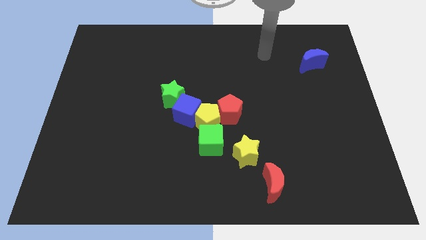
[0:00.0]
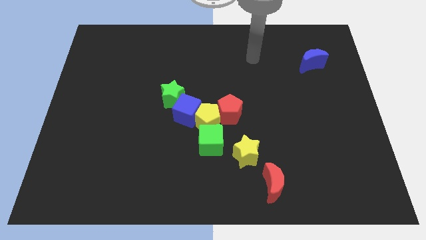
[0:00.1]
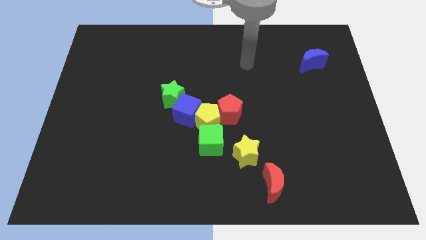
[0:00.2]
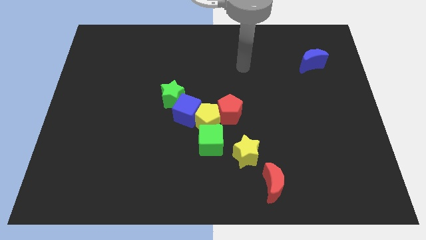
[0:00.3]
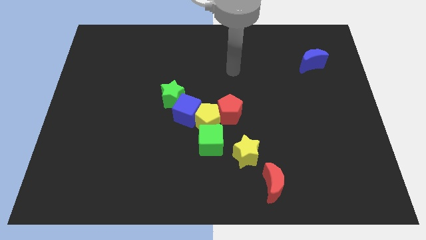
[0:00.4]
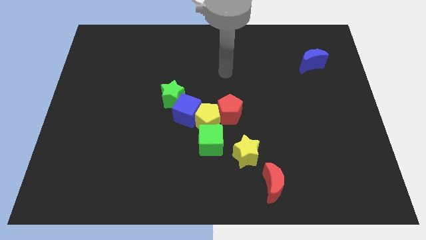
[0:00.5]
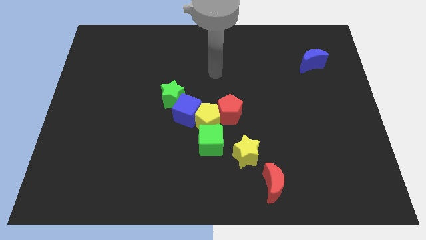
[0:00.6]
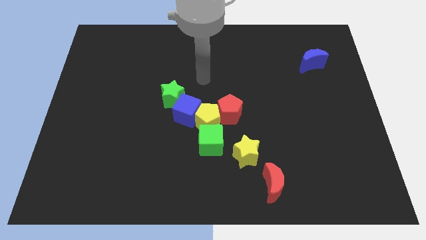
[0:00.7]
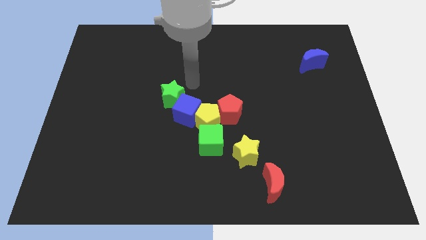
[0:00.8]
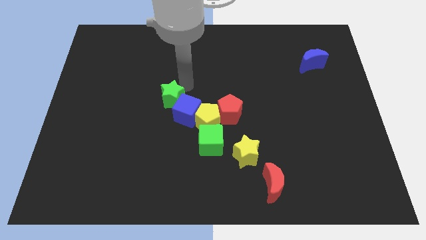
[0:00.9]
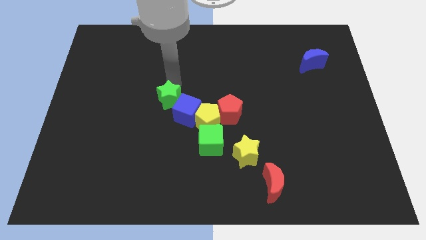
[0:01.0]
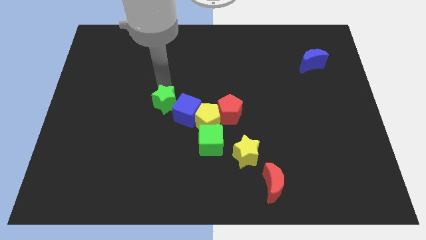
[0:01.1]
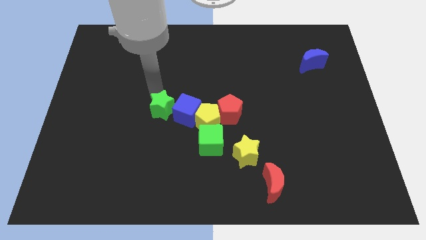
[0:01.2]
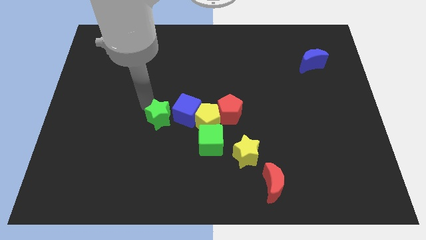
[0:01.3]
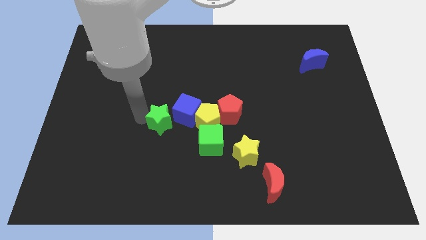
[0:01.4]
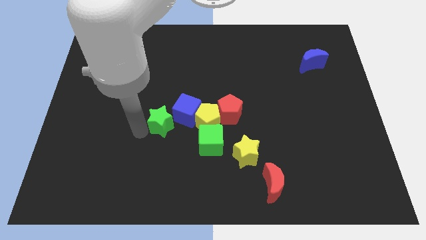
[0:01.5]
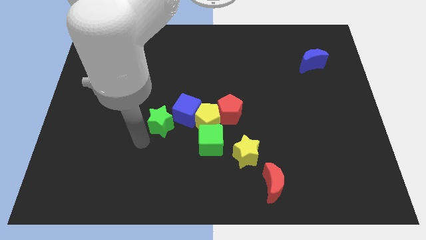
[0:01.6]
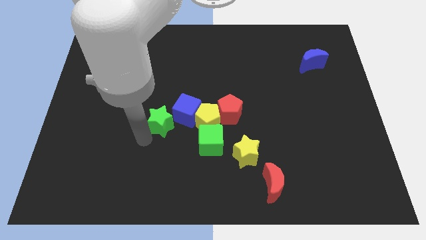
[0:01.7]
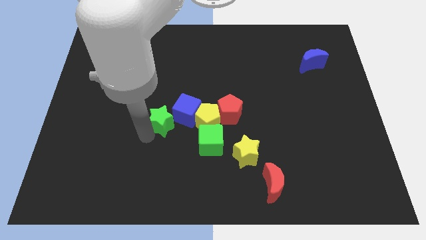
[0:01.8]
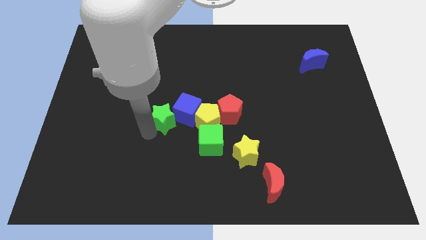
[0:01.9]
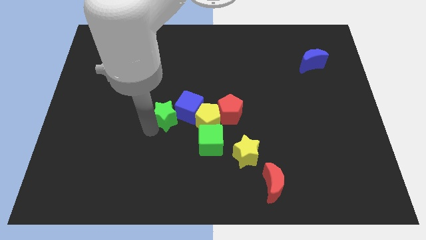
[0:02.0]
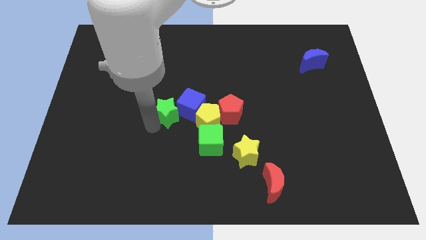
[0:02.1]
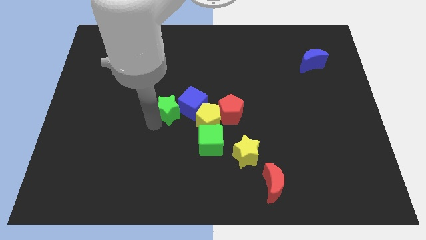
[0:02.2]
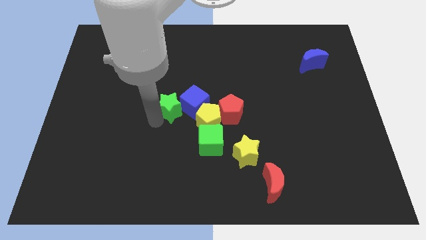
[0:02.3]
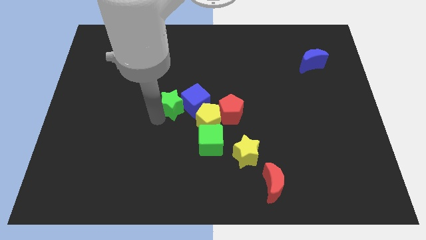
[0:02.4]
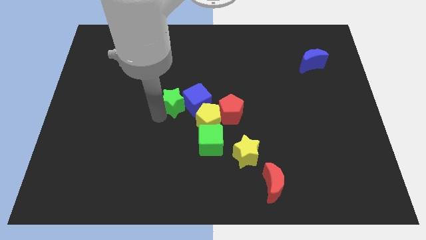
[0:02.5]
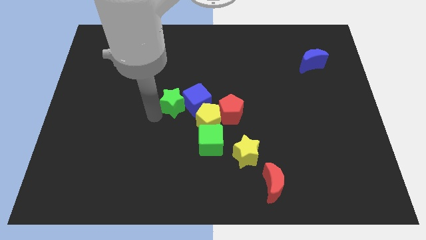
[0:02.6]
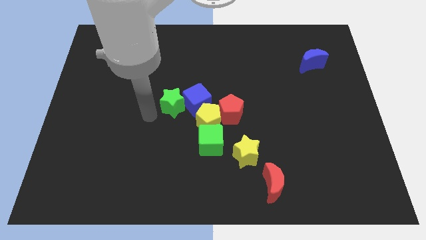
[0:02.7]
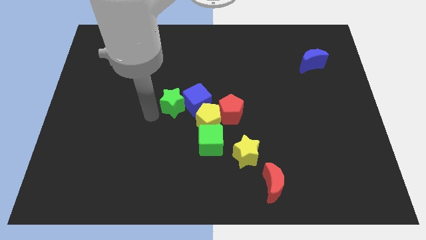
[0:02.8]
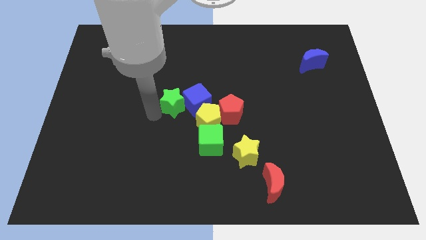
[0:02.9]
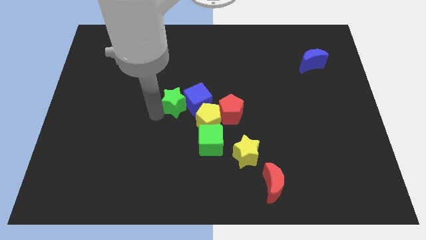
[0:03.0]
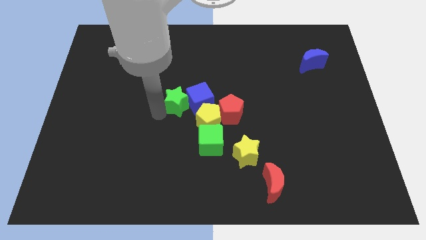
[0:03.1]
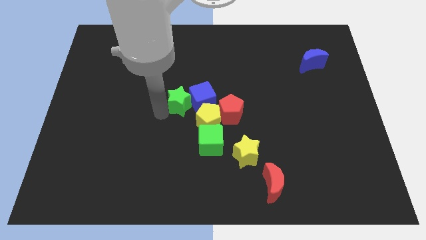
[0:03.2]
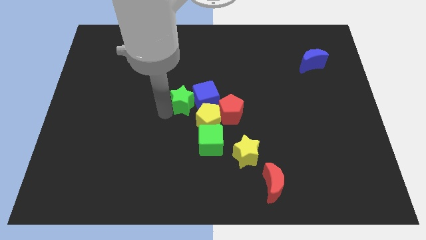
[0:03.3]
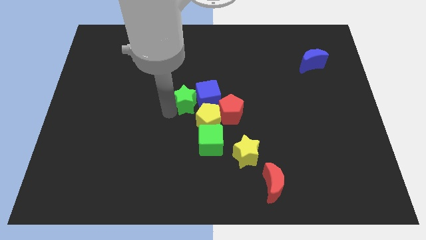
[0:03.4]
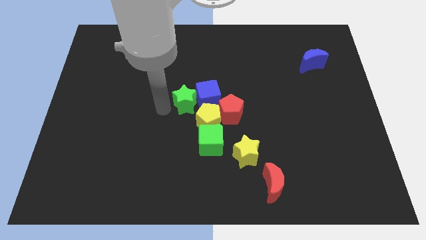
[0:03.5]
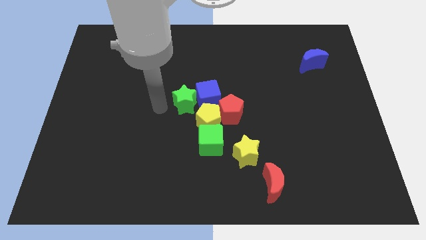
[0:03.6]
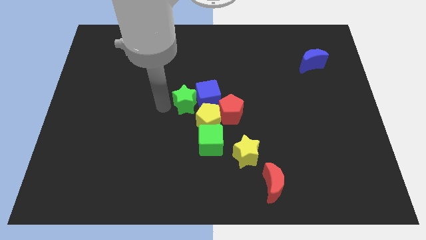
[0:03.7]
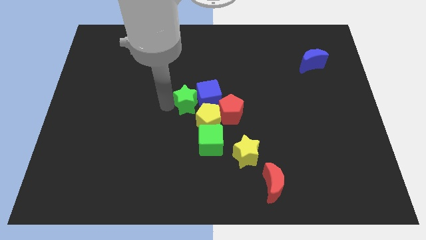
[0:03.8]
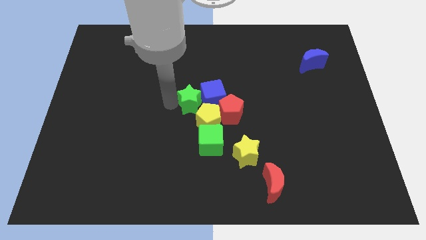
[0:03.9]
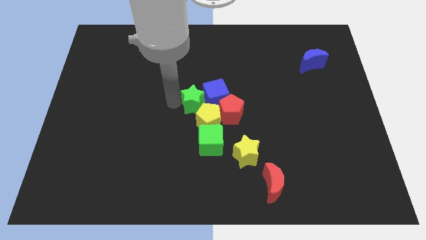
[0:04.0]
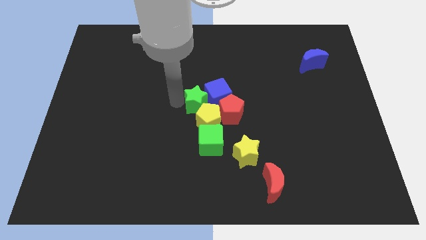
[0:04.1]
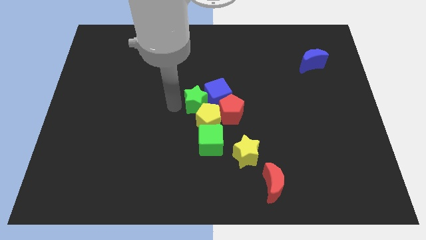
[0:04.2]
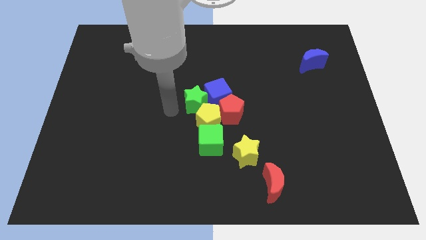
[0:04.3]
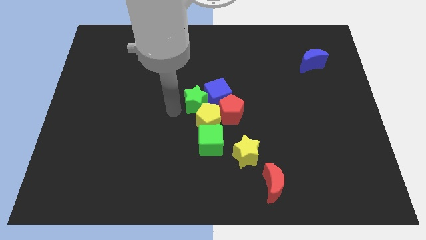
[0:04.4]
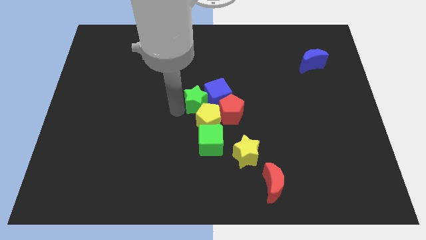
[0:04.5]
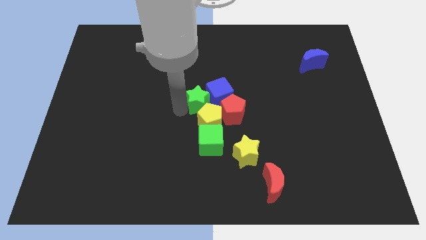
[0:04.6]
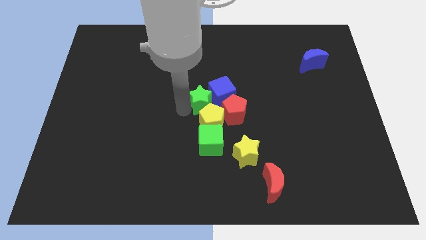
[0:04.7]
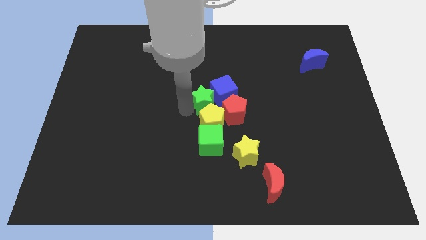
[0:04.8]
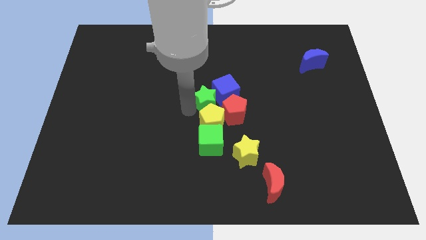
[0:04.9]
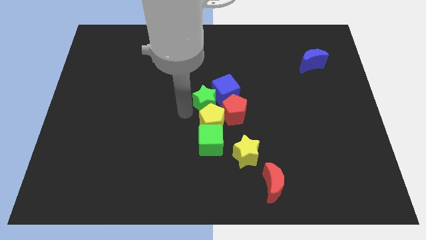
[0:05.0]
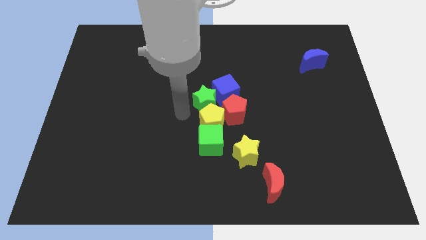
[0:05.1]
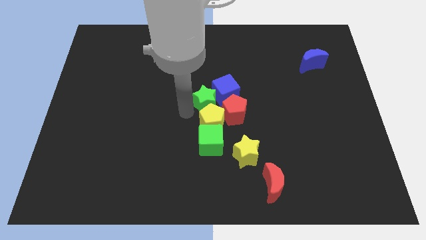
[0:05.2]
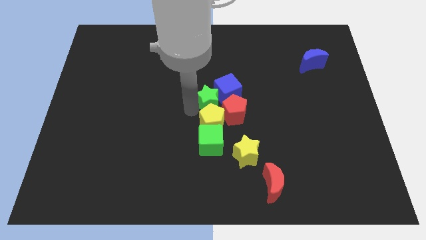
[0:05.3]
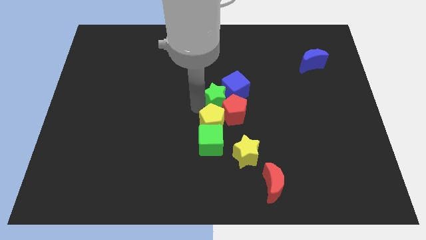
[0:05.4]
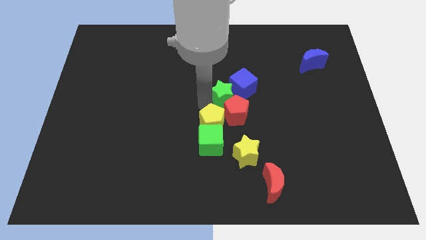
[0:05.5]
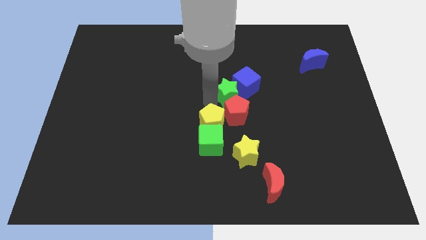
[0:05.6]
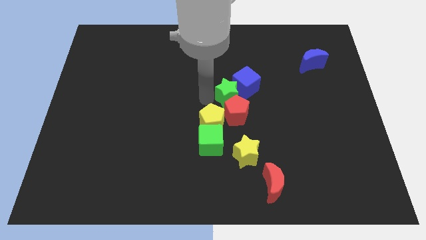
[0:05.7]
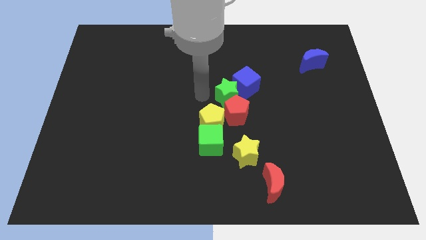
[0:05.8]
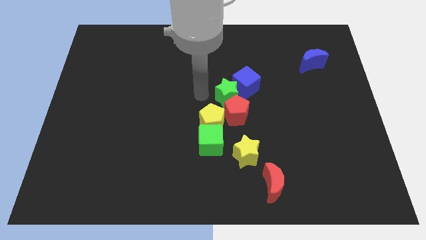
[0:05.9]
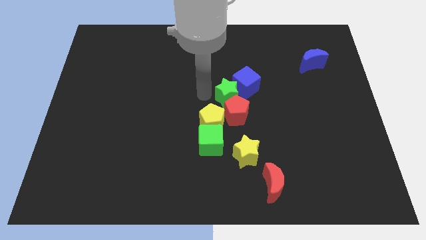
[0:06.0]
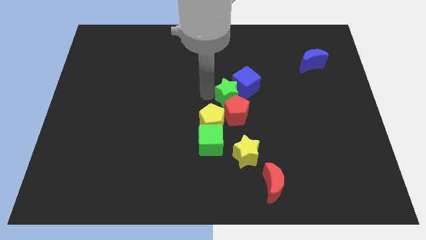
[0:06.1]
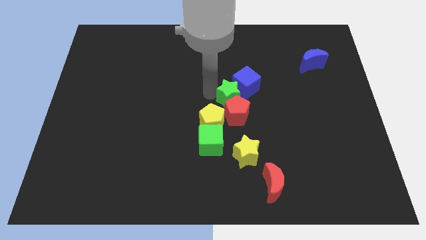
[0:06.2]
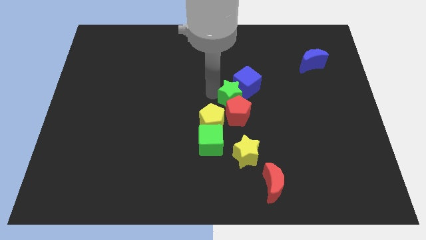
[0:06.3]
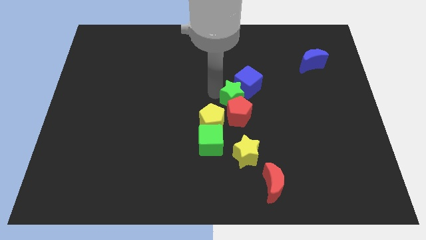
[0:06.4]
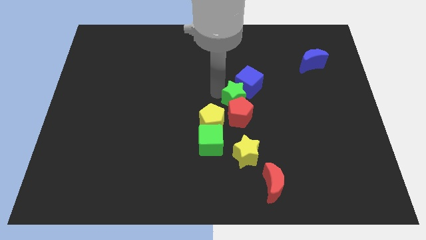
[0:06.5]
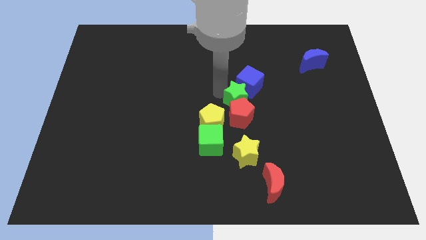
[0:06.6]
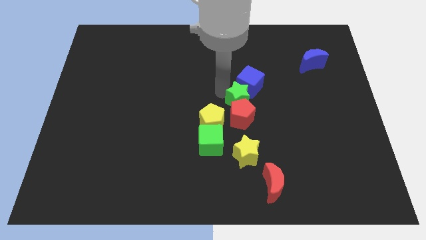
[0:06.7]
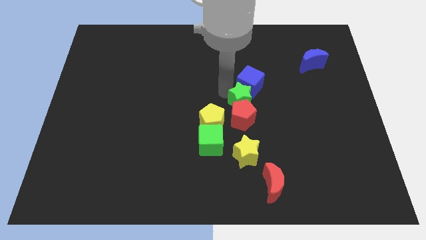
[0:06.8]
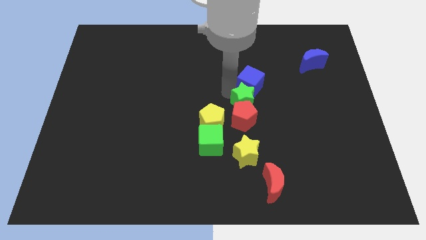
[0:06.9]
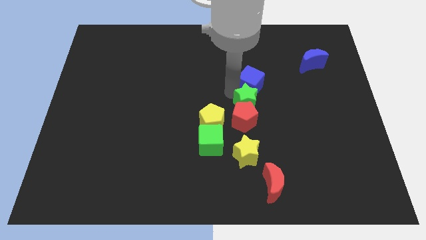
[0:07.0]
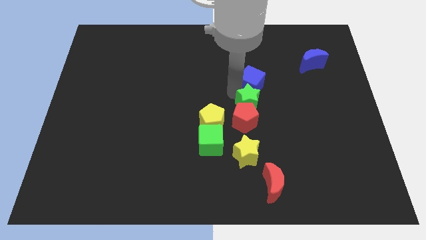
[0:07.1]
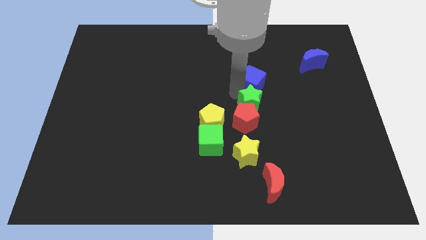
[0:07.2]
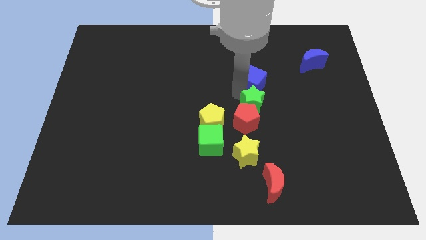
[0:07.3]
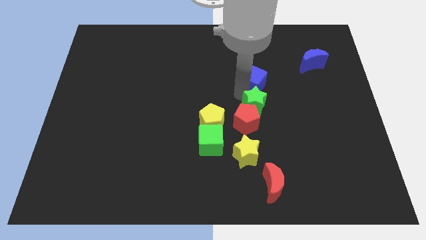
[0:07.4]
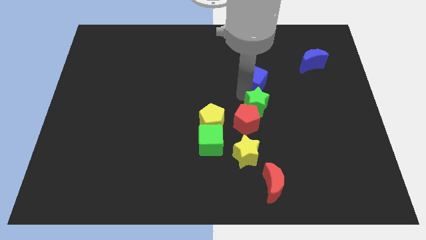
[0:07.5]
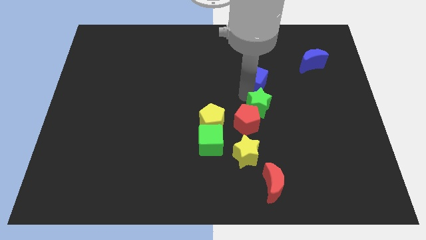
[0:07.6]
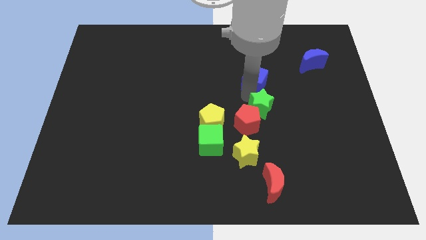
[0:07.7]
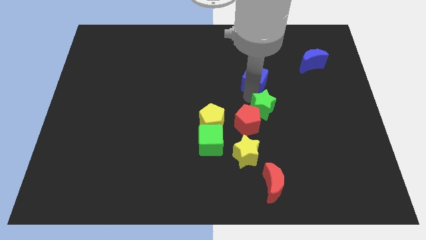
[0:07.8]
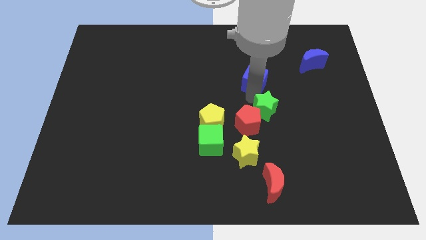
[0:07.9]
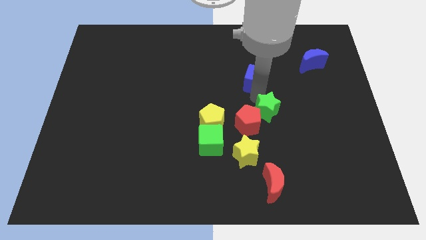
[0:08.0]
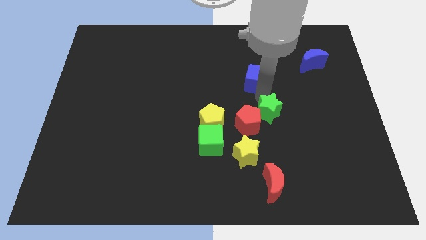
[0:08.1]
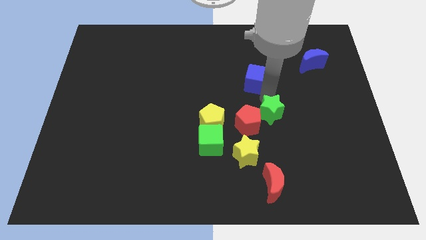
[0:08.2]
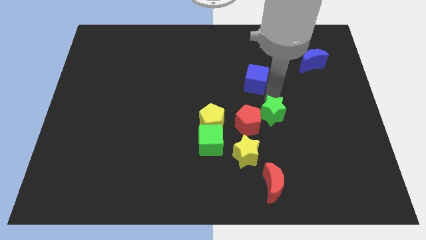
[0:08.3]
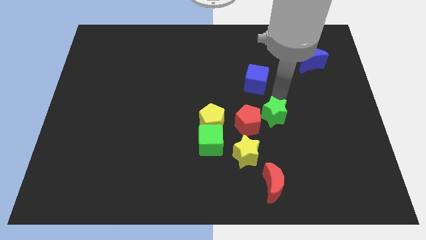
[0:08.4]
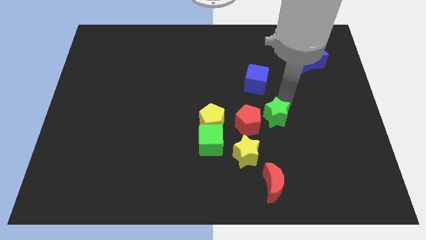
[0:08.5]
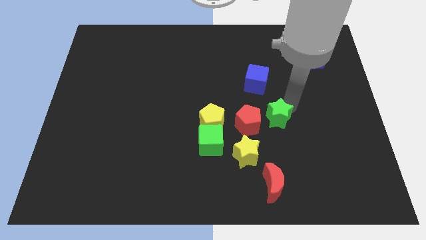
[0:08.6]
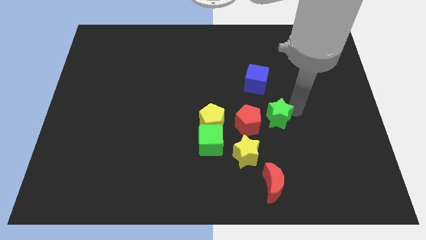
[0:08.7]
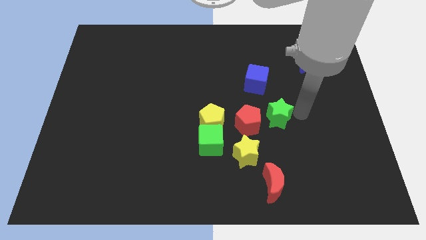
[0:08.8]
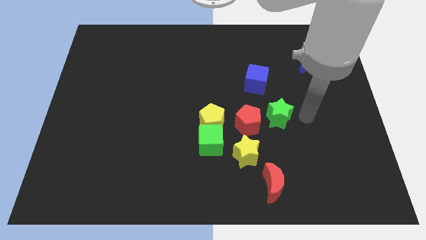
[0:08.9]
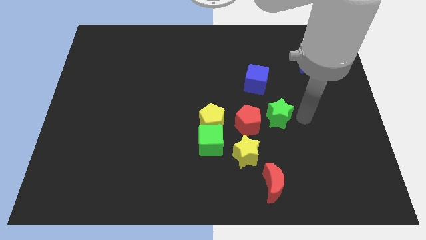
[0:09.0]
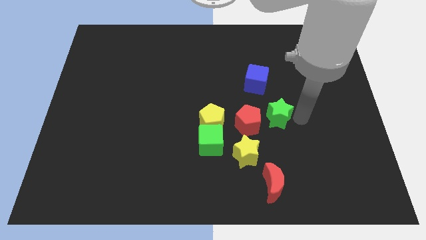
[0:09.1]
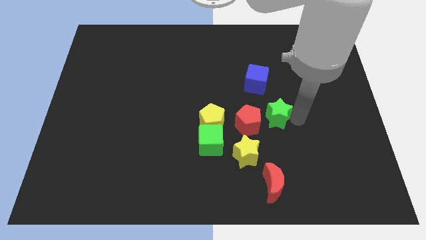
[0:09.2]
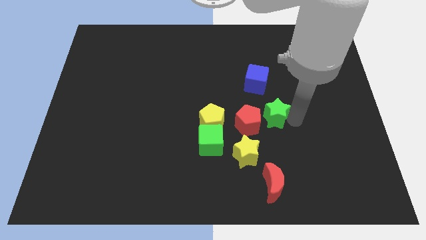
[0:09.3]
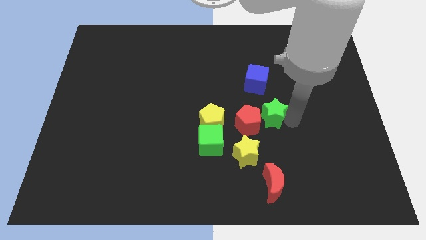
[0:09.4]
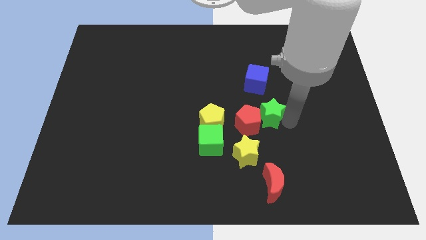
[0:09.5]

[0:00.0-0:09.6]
put the green star to the bottom right of the red pentagon
